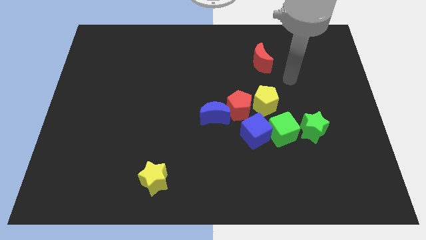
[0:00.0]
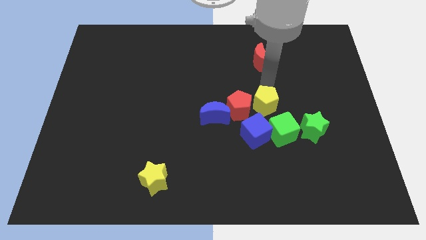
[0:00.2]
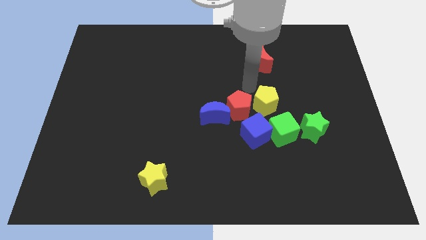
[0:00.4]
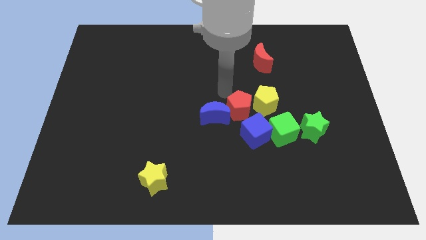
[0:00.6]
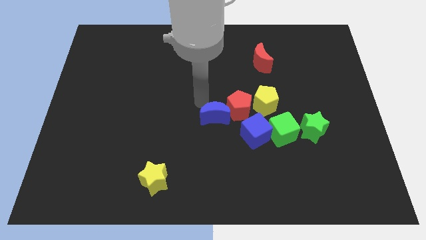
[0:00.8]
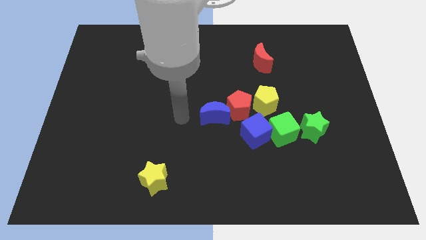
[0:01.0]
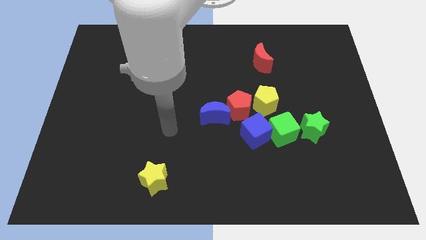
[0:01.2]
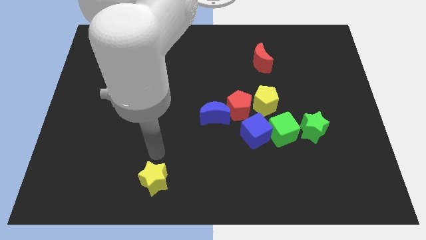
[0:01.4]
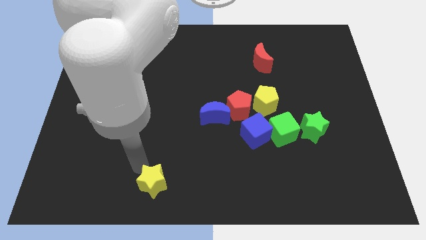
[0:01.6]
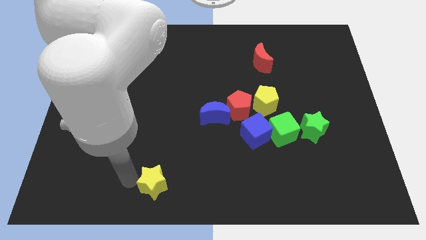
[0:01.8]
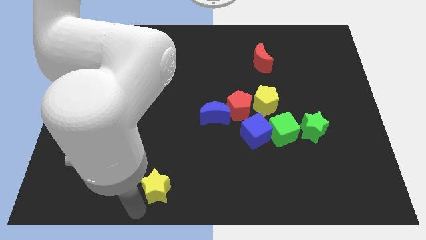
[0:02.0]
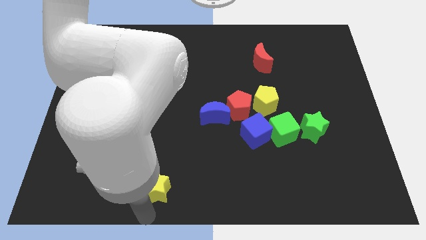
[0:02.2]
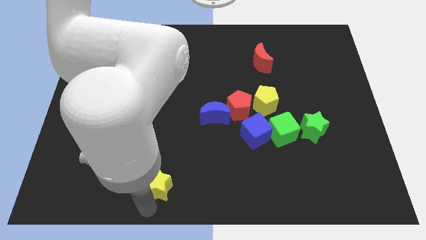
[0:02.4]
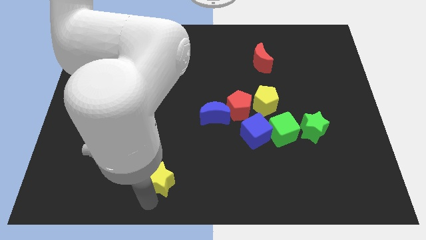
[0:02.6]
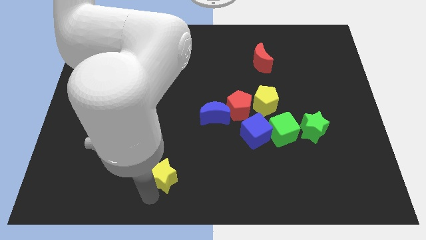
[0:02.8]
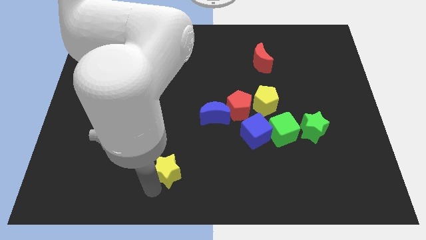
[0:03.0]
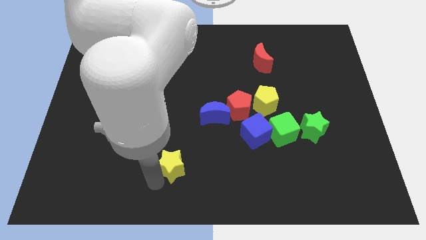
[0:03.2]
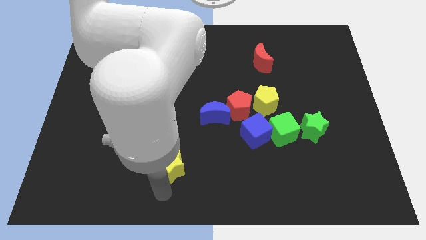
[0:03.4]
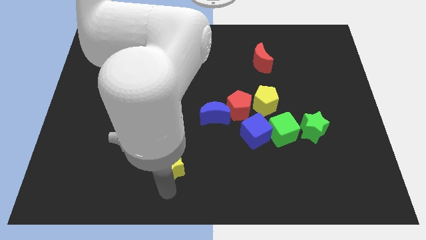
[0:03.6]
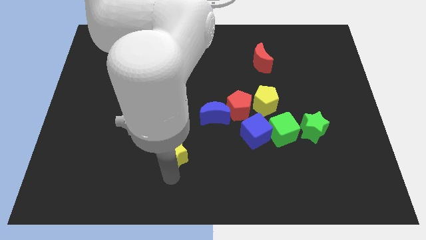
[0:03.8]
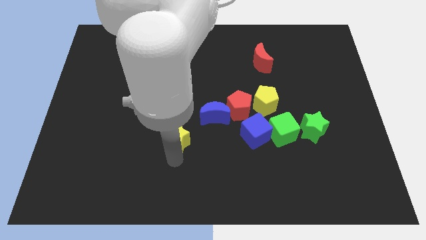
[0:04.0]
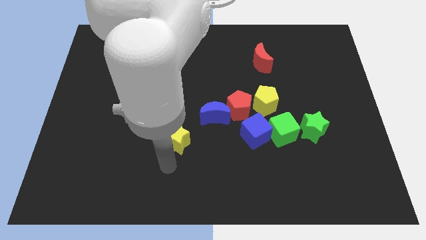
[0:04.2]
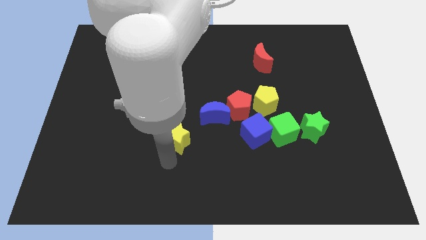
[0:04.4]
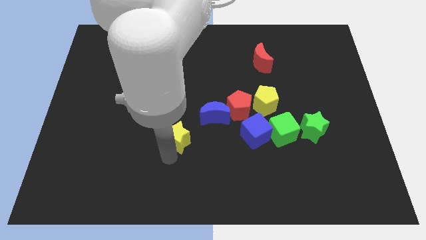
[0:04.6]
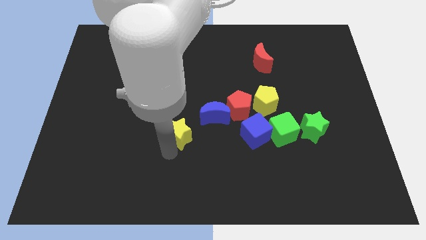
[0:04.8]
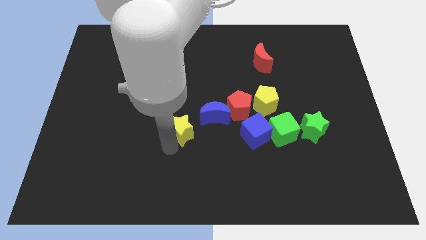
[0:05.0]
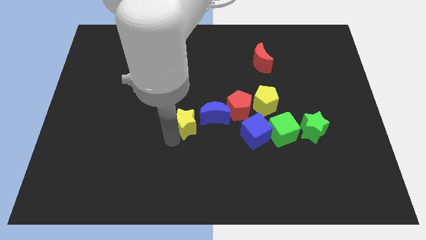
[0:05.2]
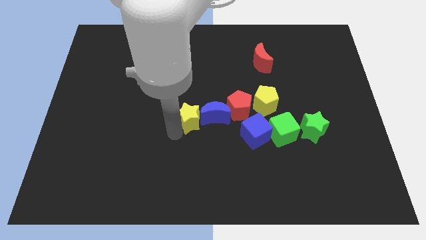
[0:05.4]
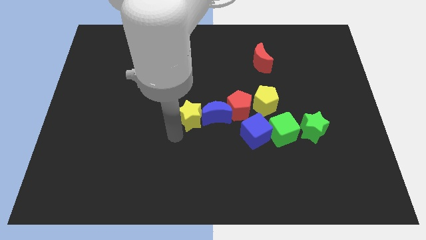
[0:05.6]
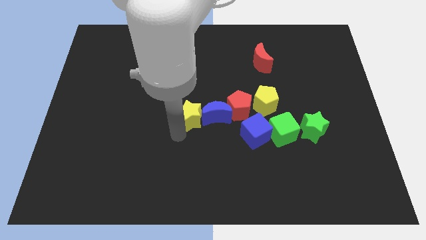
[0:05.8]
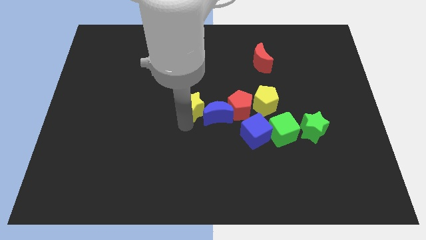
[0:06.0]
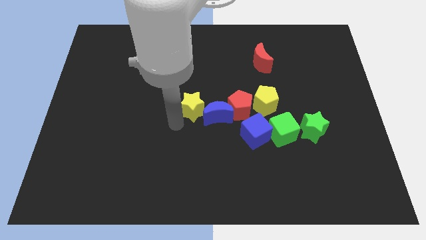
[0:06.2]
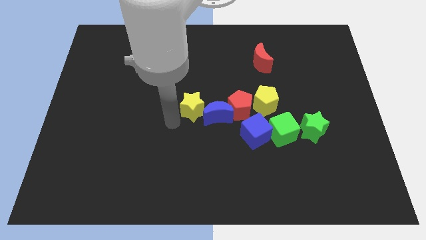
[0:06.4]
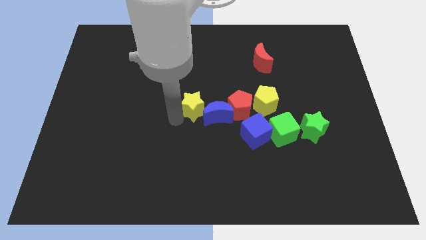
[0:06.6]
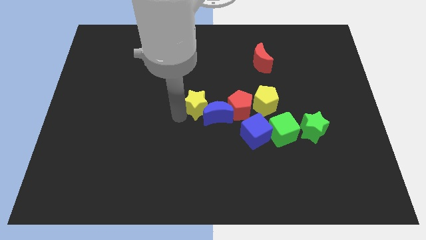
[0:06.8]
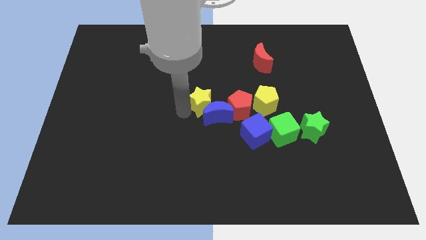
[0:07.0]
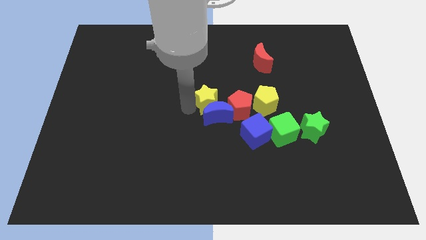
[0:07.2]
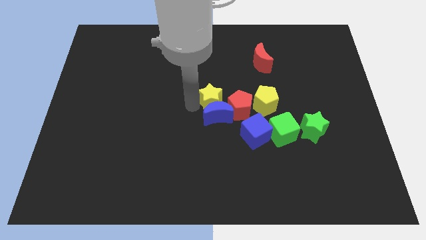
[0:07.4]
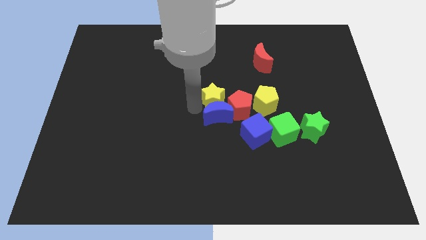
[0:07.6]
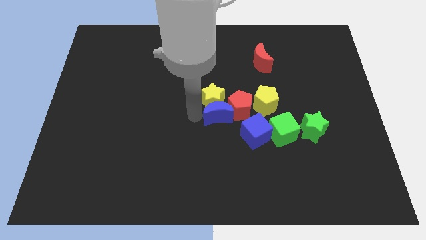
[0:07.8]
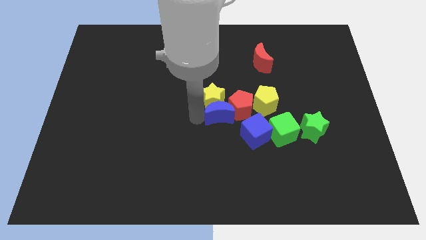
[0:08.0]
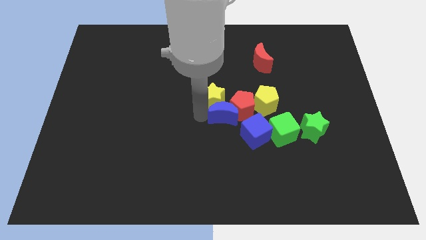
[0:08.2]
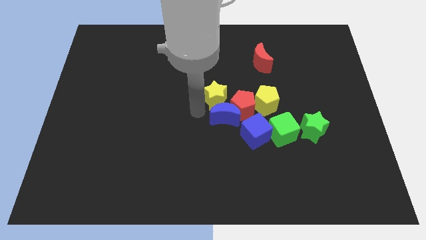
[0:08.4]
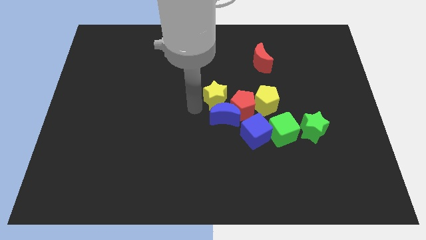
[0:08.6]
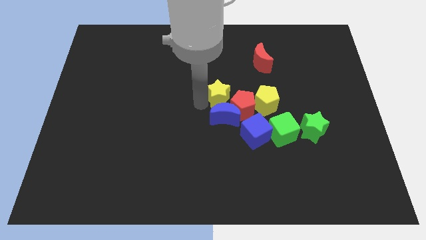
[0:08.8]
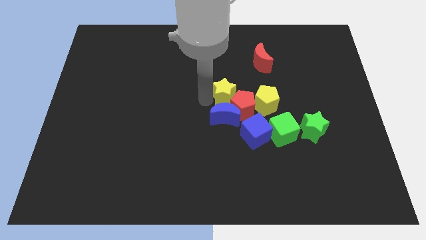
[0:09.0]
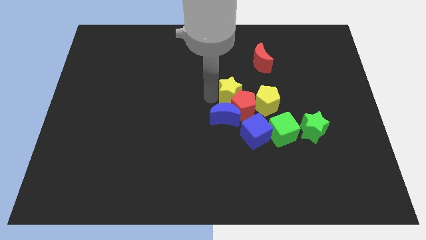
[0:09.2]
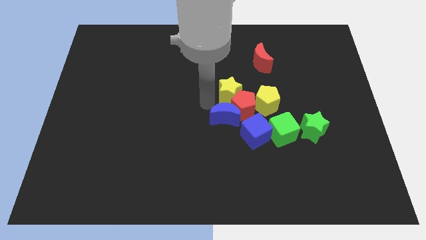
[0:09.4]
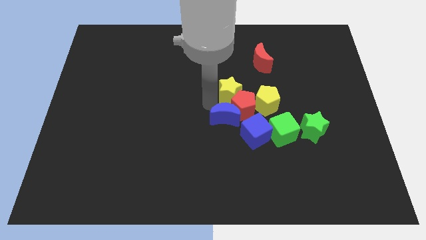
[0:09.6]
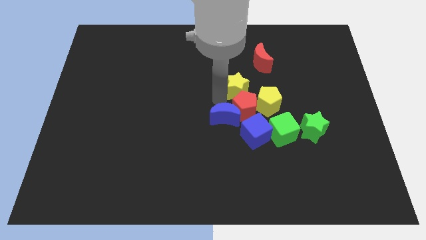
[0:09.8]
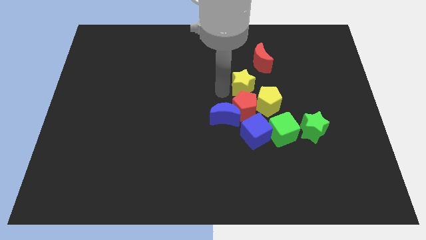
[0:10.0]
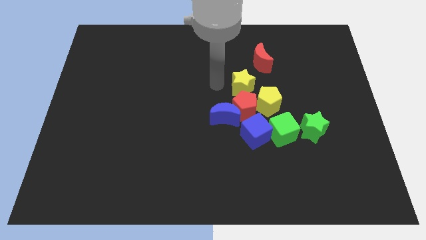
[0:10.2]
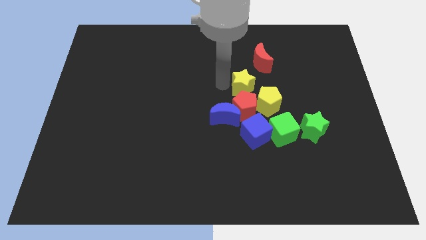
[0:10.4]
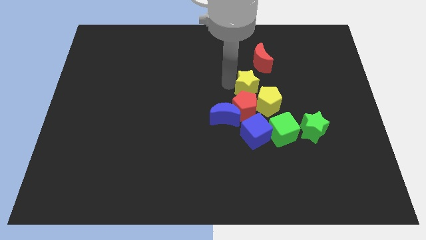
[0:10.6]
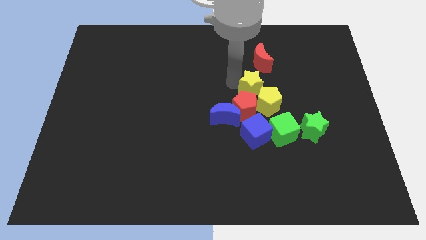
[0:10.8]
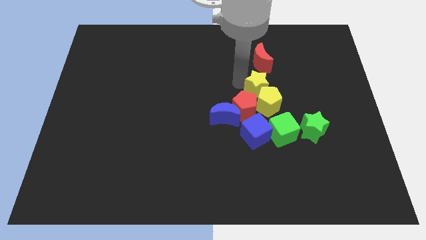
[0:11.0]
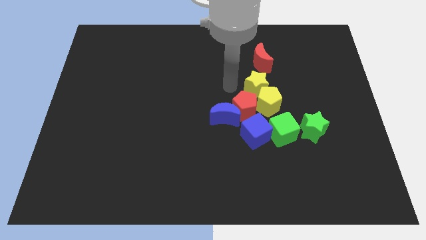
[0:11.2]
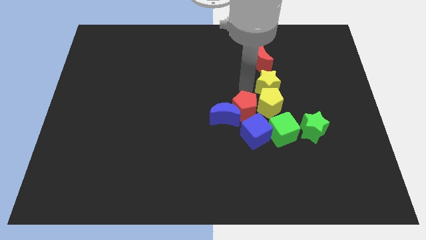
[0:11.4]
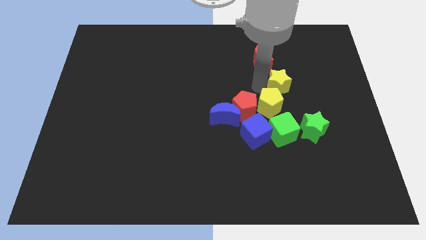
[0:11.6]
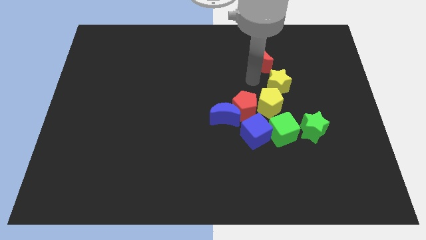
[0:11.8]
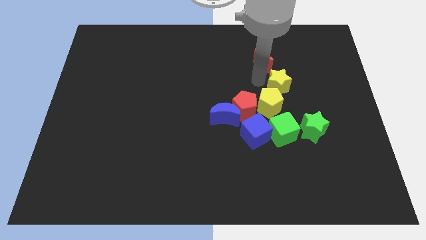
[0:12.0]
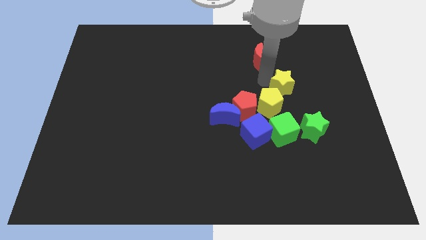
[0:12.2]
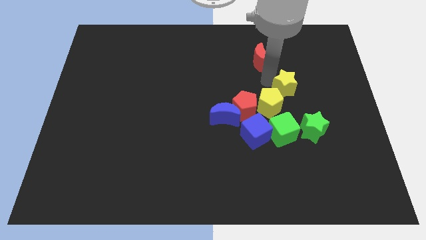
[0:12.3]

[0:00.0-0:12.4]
put the yellow star to the top of the green star
